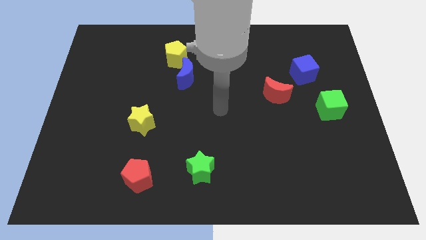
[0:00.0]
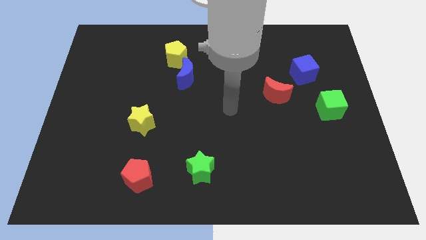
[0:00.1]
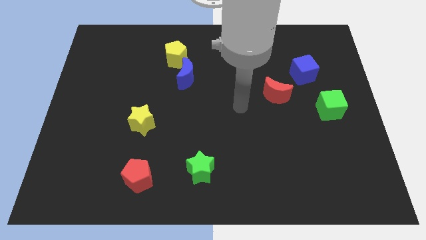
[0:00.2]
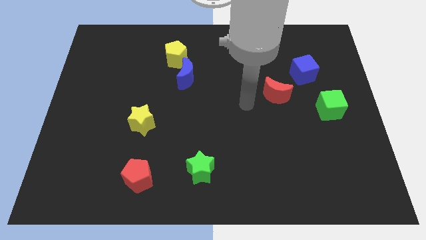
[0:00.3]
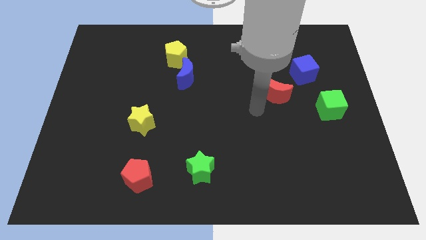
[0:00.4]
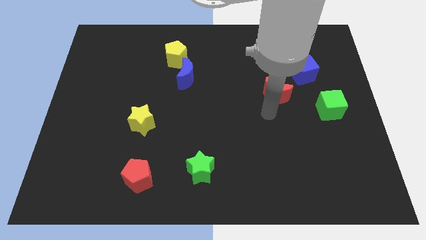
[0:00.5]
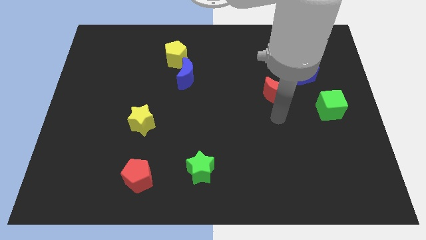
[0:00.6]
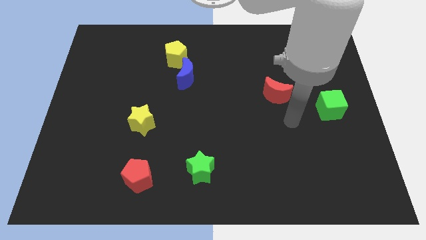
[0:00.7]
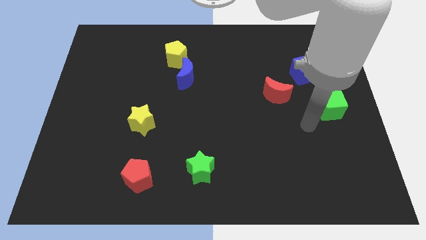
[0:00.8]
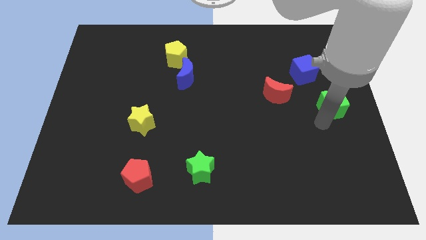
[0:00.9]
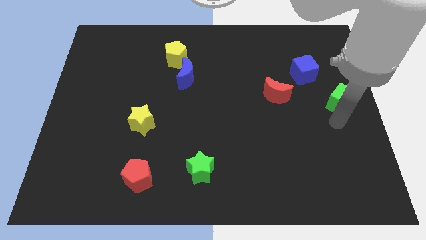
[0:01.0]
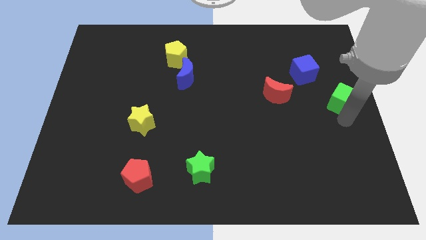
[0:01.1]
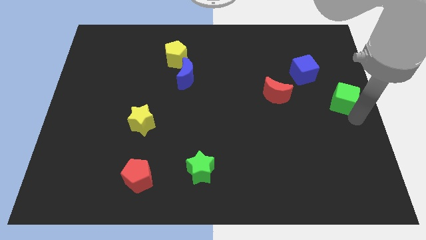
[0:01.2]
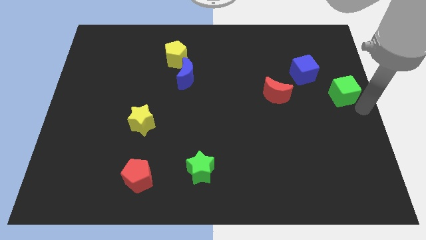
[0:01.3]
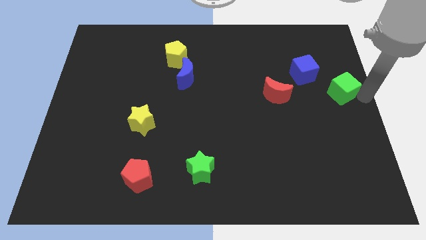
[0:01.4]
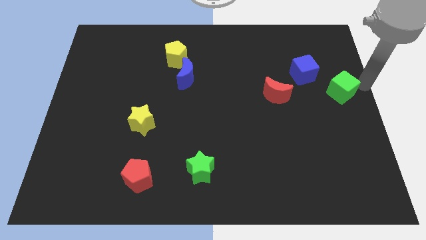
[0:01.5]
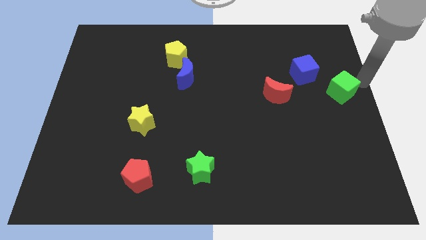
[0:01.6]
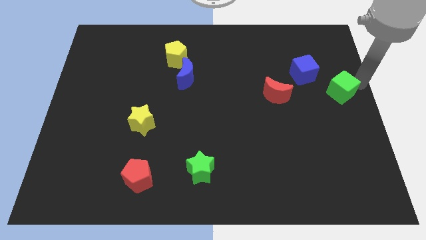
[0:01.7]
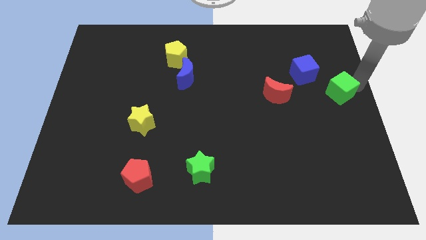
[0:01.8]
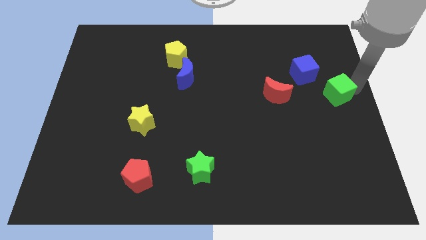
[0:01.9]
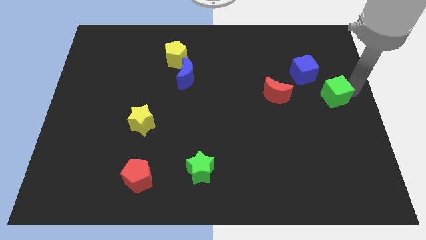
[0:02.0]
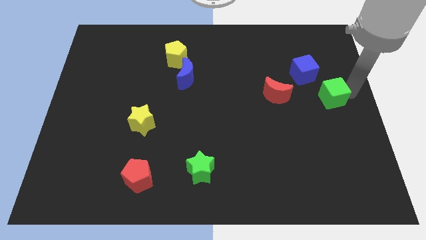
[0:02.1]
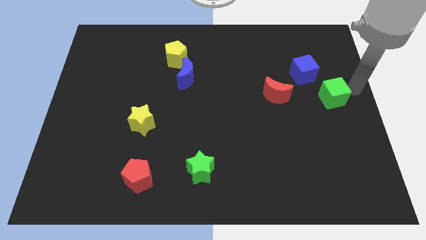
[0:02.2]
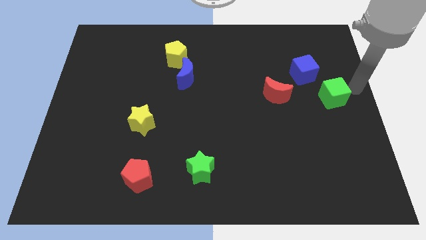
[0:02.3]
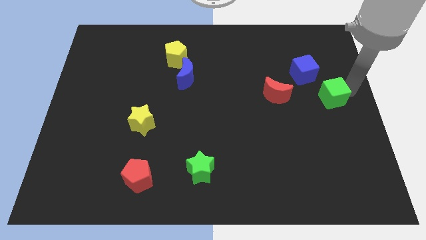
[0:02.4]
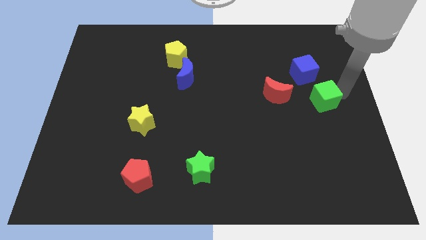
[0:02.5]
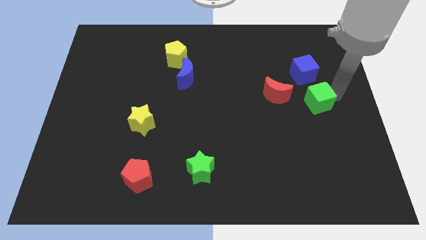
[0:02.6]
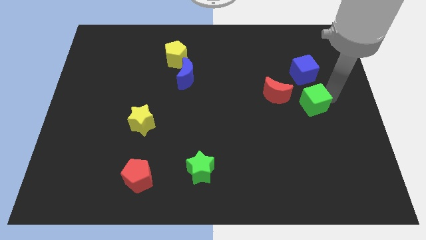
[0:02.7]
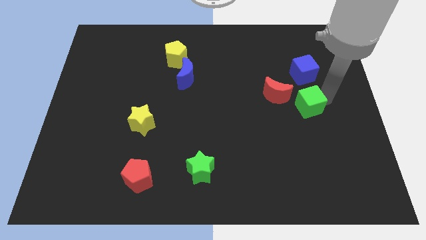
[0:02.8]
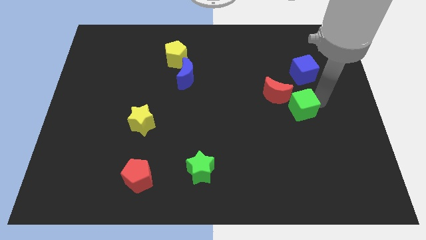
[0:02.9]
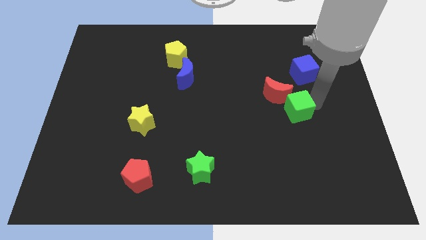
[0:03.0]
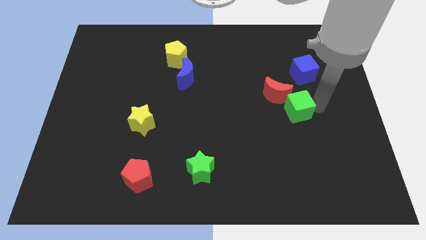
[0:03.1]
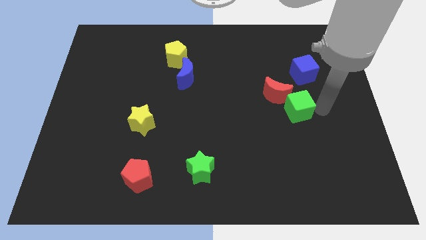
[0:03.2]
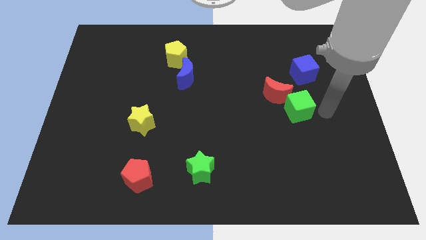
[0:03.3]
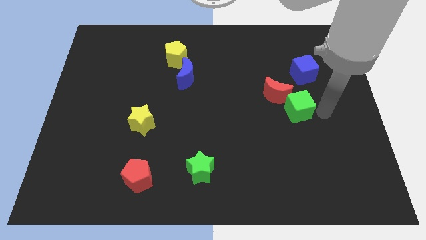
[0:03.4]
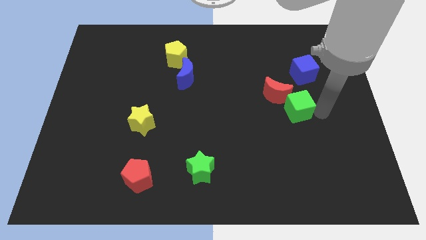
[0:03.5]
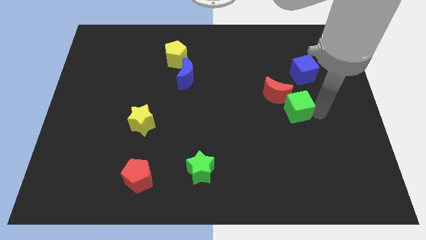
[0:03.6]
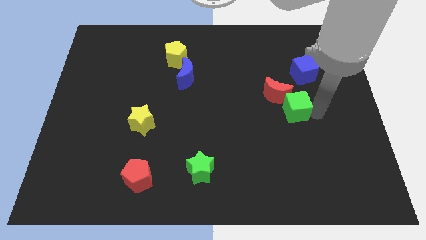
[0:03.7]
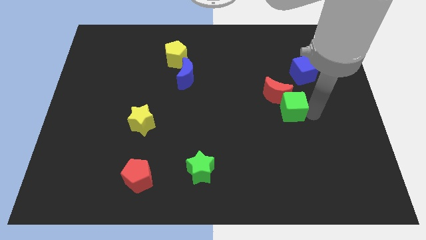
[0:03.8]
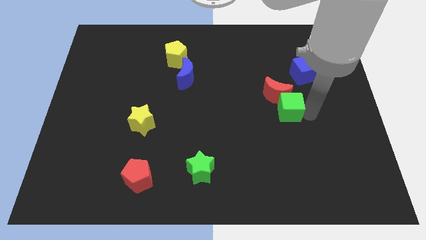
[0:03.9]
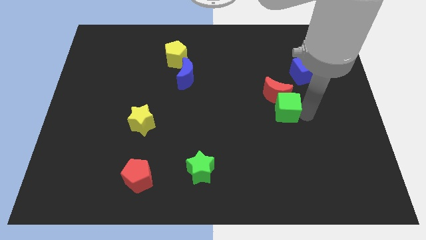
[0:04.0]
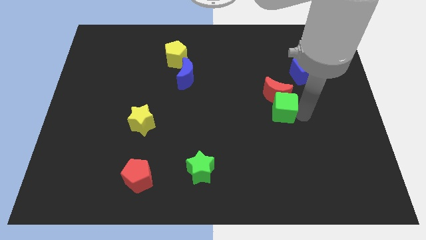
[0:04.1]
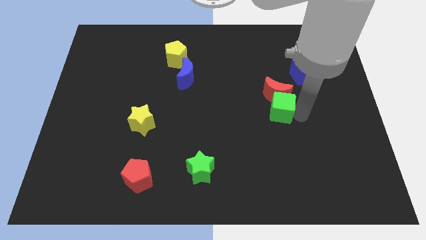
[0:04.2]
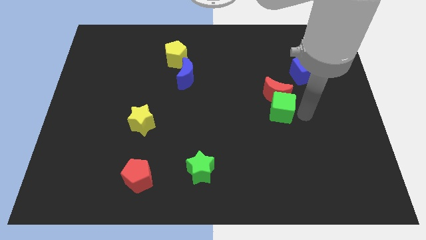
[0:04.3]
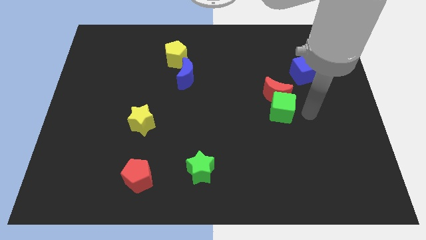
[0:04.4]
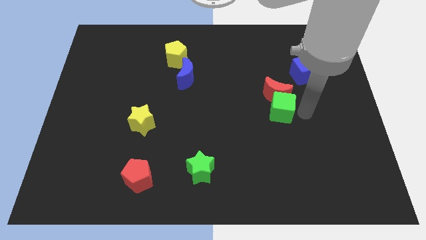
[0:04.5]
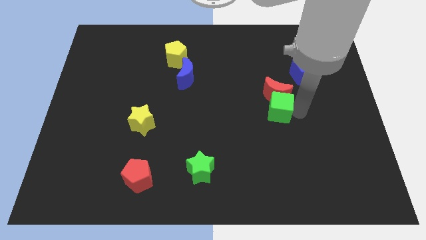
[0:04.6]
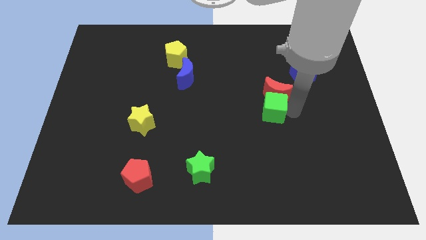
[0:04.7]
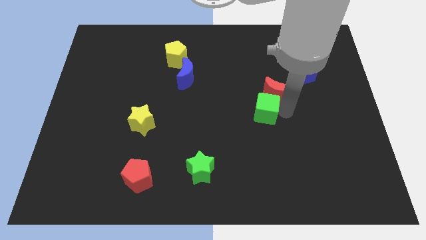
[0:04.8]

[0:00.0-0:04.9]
put the green cube to the middle of the board

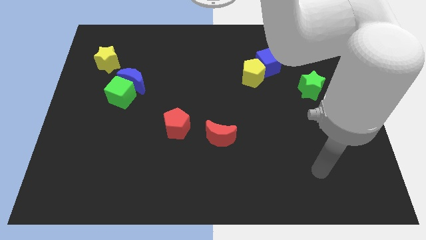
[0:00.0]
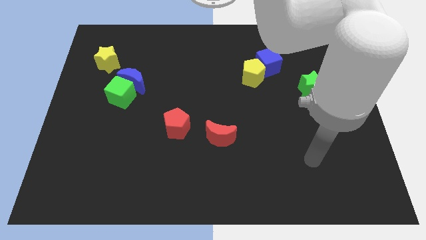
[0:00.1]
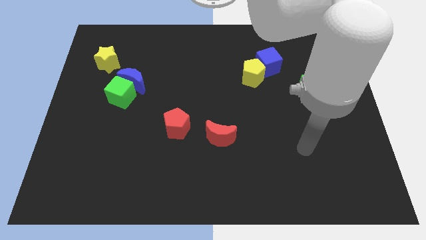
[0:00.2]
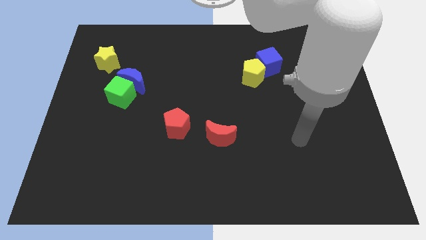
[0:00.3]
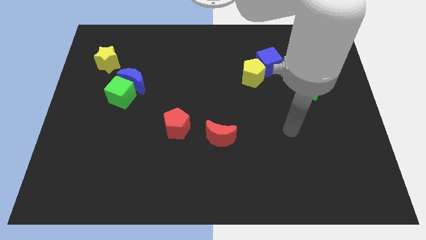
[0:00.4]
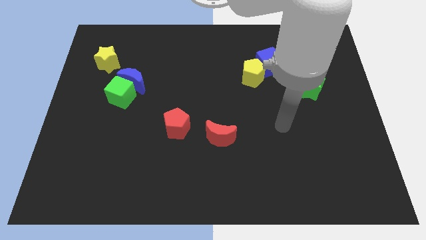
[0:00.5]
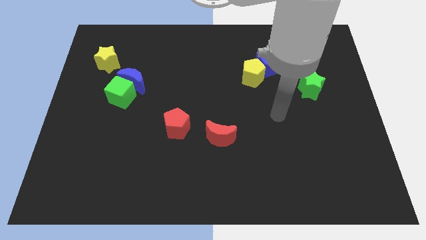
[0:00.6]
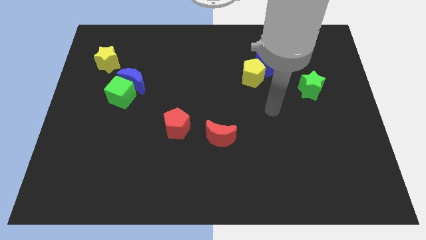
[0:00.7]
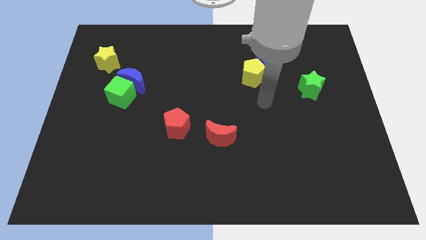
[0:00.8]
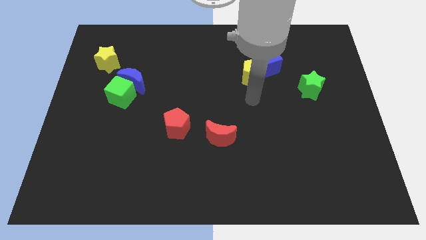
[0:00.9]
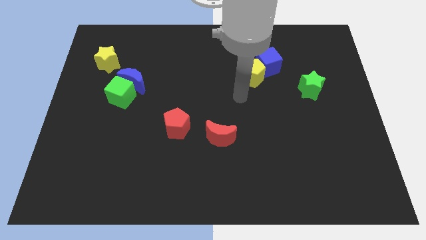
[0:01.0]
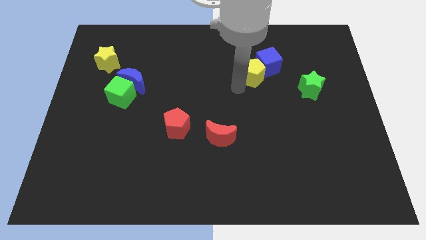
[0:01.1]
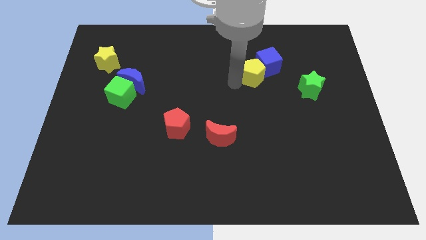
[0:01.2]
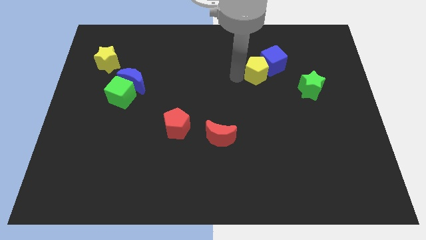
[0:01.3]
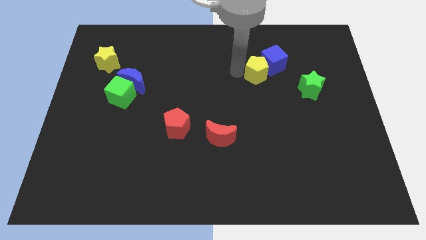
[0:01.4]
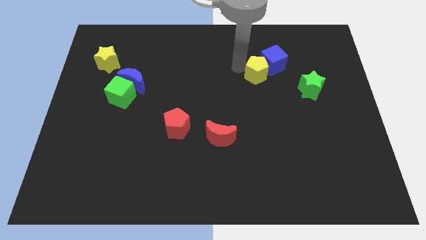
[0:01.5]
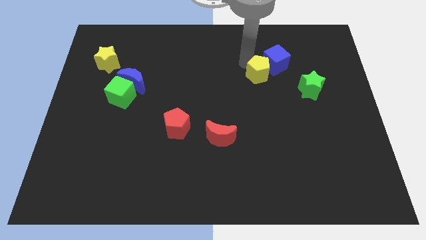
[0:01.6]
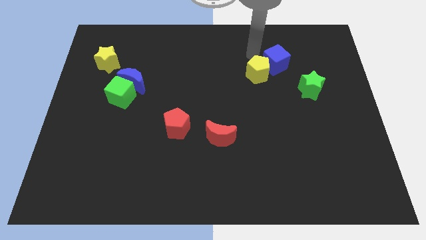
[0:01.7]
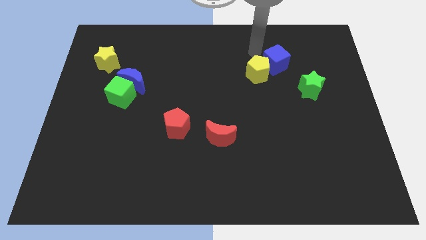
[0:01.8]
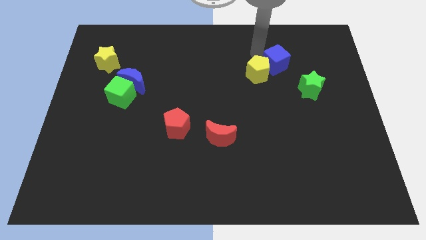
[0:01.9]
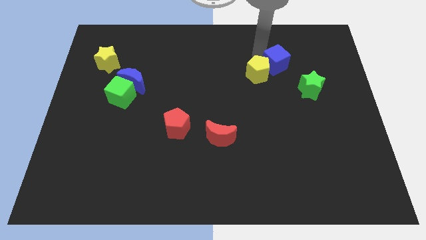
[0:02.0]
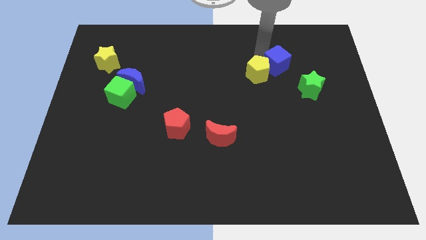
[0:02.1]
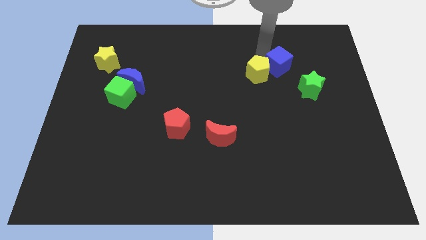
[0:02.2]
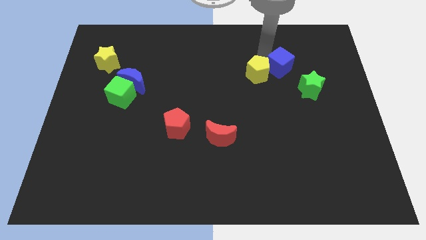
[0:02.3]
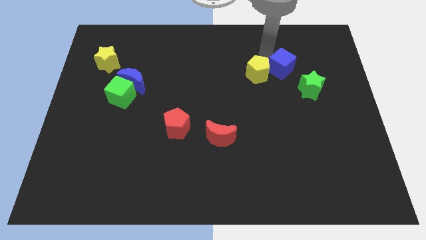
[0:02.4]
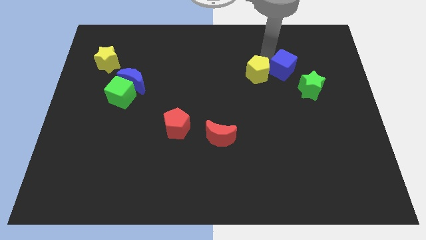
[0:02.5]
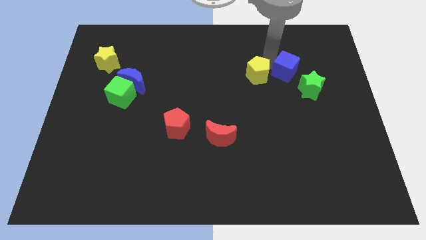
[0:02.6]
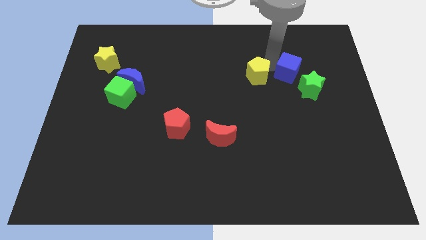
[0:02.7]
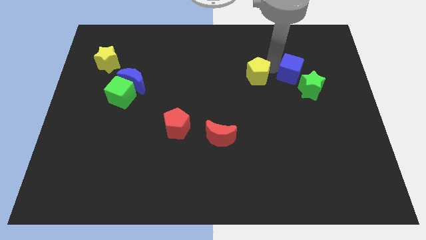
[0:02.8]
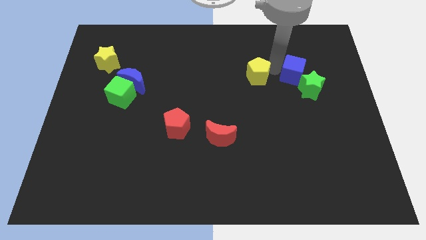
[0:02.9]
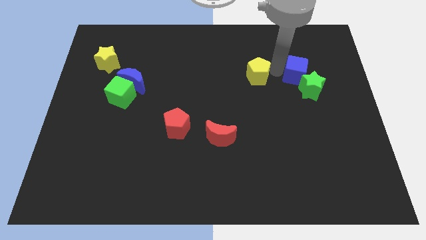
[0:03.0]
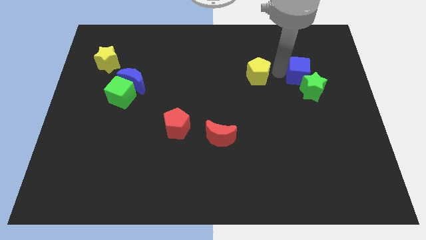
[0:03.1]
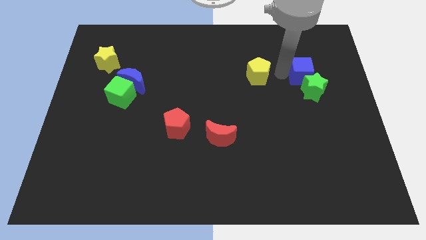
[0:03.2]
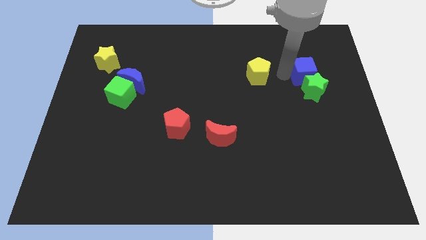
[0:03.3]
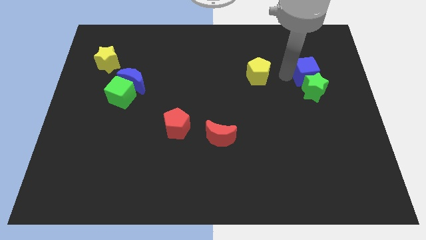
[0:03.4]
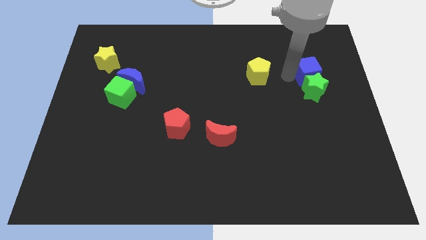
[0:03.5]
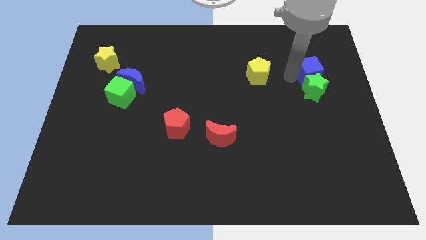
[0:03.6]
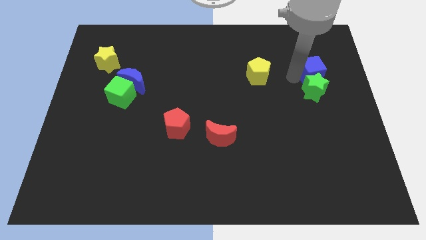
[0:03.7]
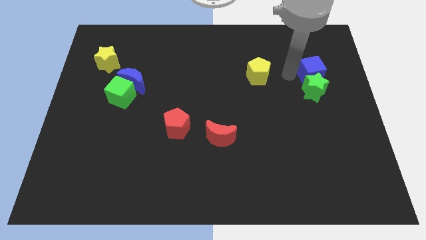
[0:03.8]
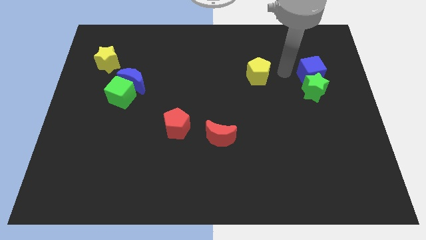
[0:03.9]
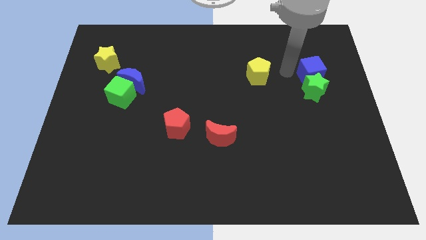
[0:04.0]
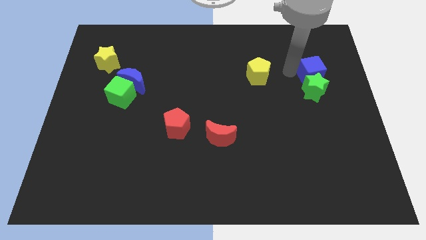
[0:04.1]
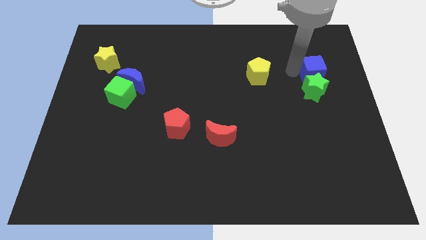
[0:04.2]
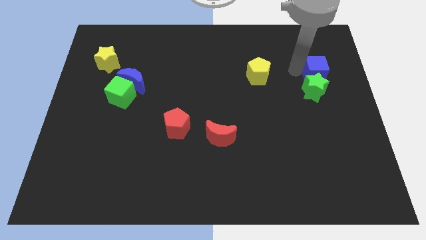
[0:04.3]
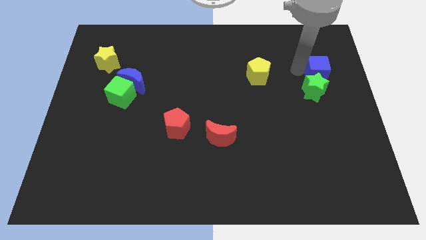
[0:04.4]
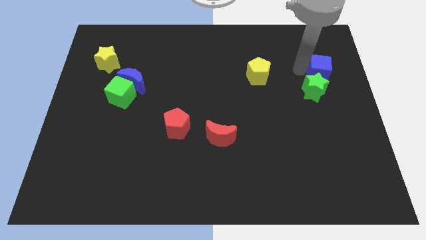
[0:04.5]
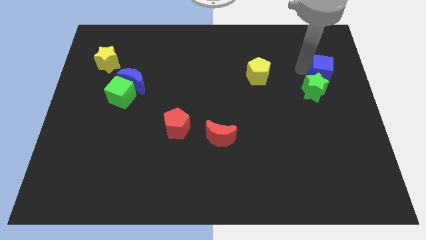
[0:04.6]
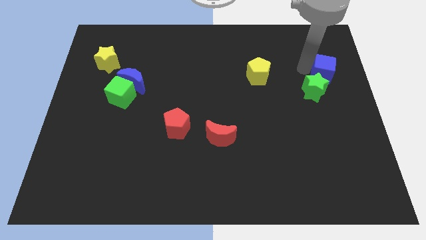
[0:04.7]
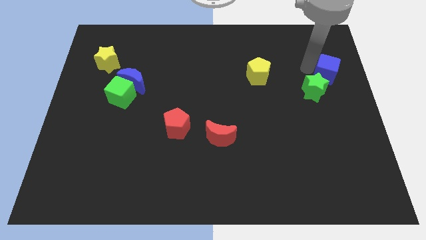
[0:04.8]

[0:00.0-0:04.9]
push the blue cube to the right side
